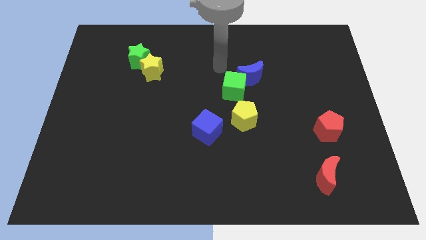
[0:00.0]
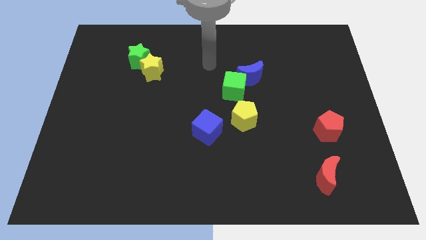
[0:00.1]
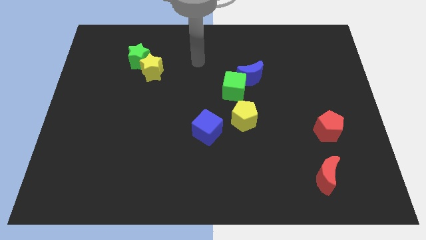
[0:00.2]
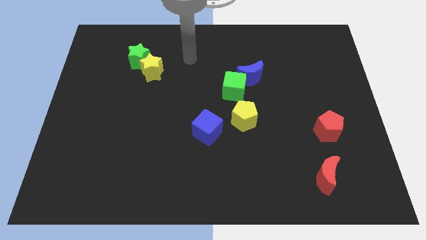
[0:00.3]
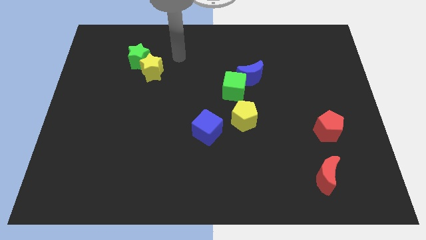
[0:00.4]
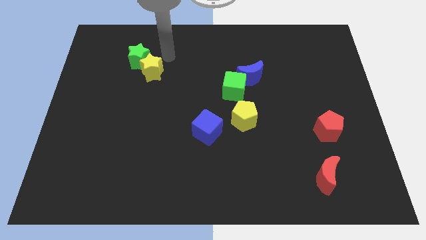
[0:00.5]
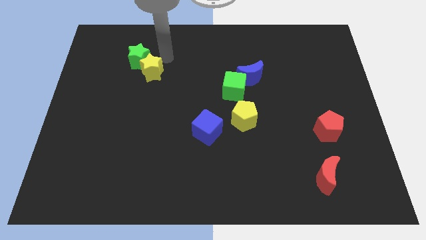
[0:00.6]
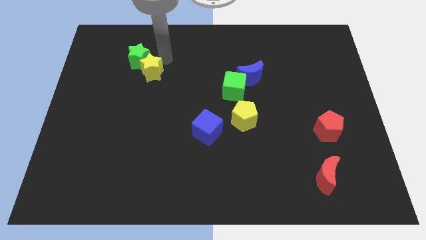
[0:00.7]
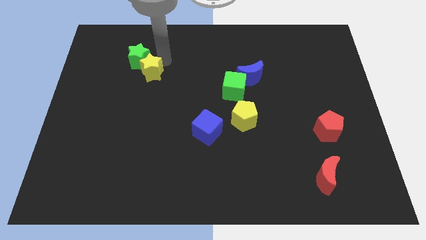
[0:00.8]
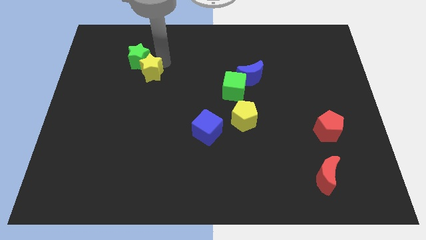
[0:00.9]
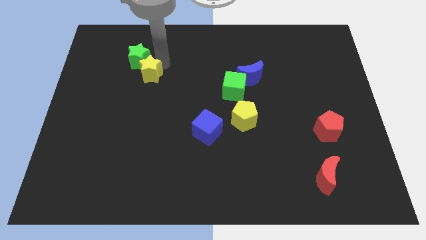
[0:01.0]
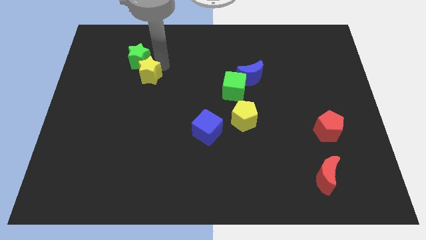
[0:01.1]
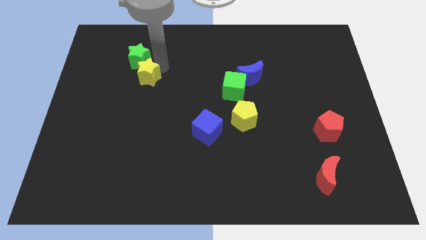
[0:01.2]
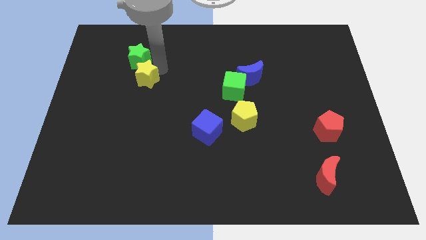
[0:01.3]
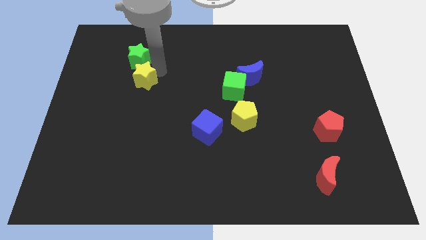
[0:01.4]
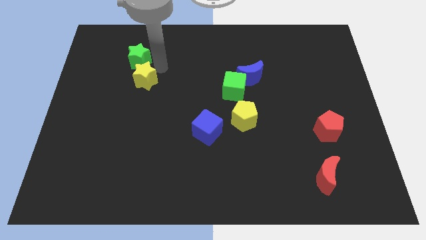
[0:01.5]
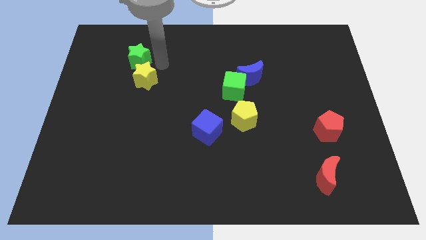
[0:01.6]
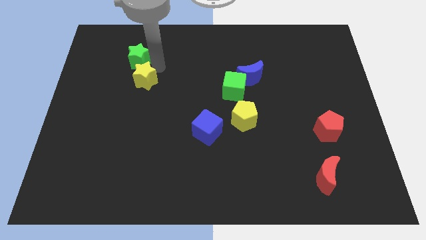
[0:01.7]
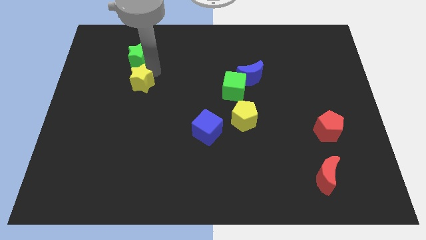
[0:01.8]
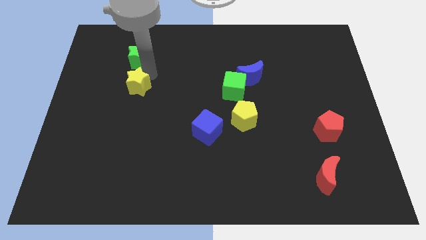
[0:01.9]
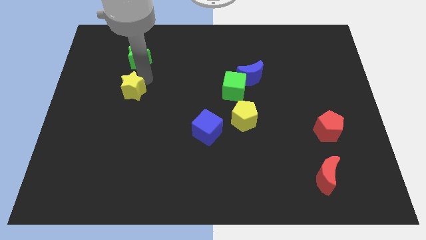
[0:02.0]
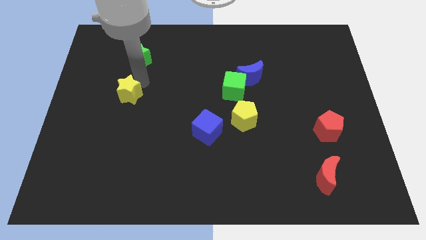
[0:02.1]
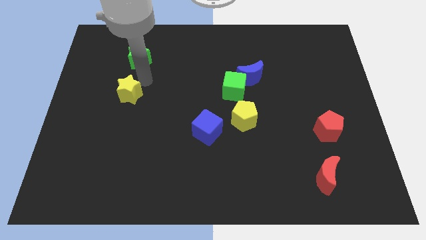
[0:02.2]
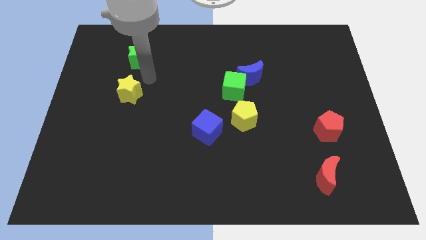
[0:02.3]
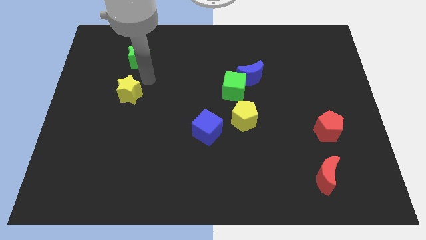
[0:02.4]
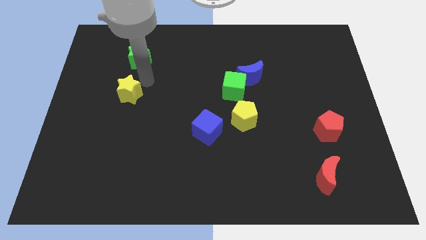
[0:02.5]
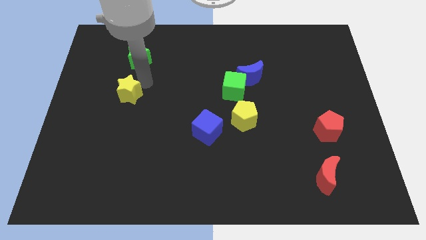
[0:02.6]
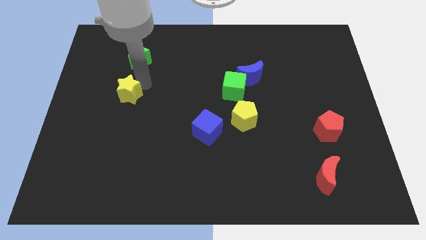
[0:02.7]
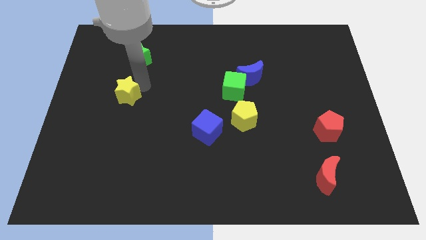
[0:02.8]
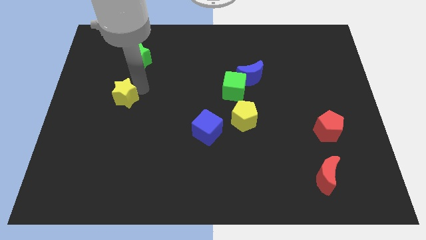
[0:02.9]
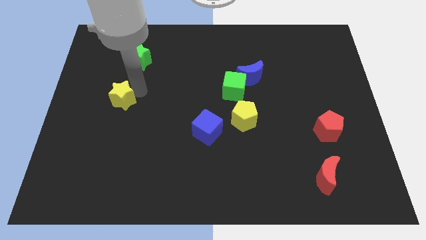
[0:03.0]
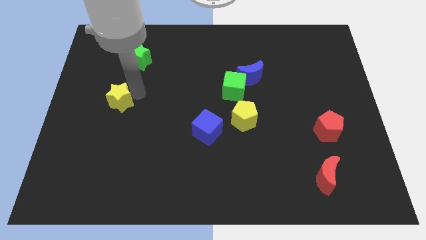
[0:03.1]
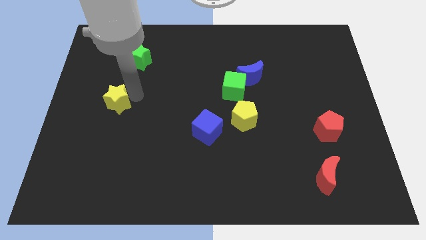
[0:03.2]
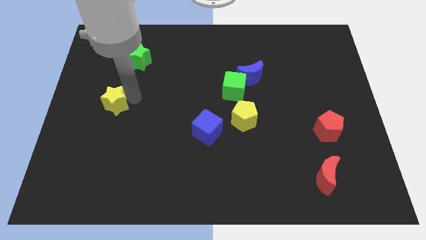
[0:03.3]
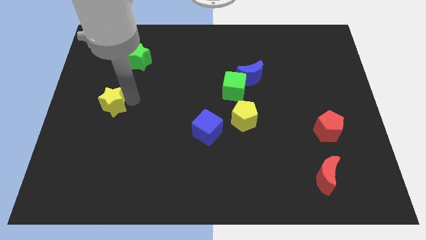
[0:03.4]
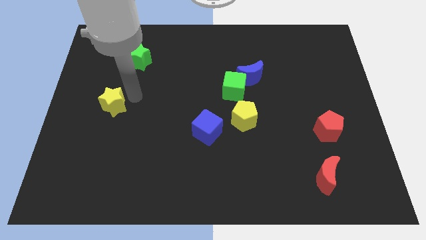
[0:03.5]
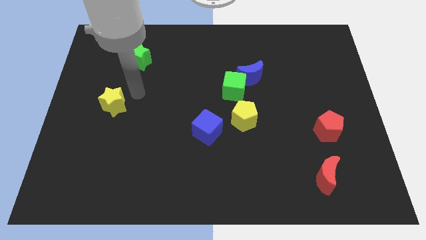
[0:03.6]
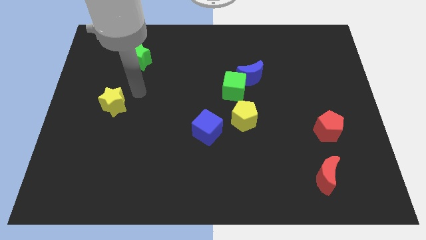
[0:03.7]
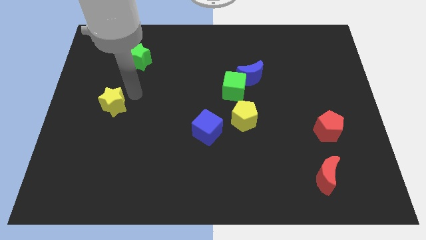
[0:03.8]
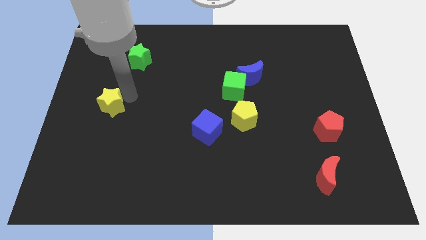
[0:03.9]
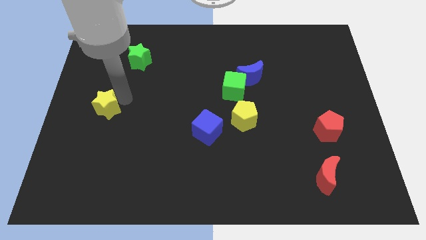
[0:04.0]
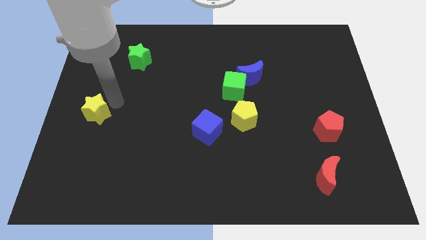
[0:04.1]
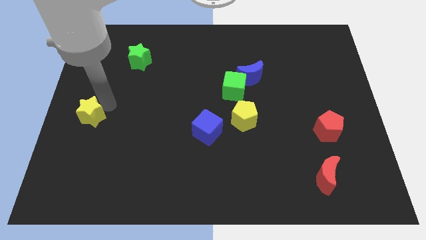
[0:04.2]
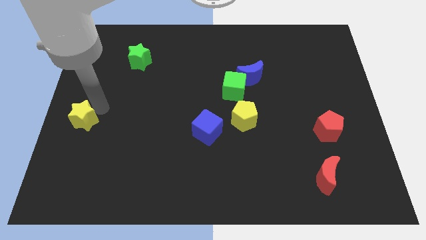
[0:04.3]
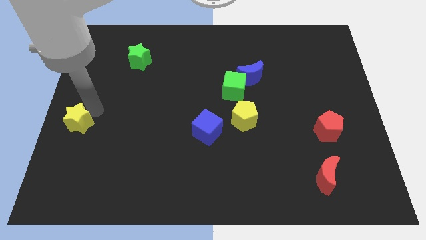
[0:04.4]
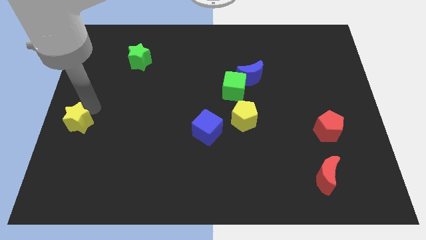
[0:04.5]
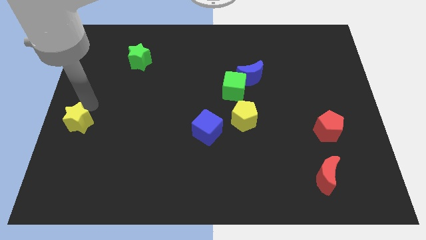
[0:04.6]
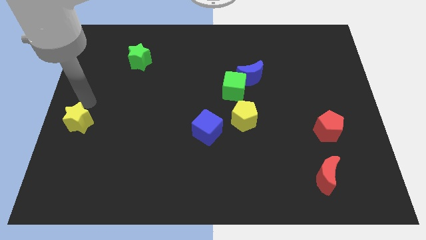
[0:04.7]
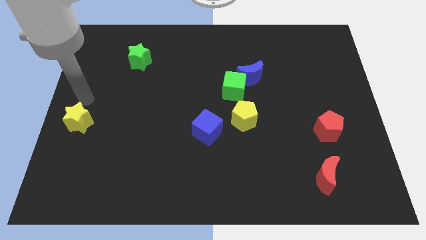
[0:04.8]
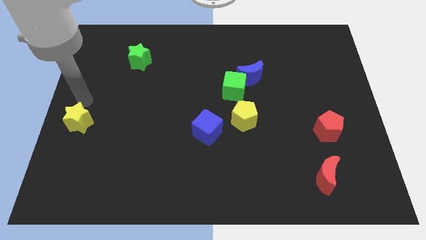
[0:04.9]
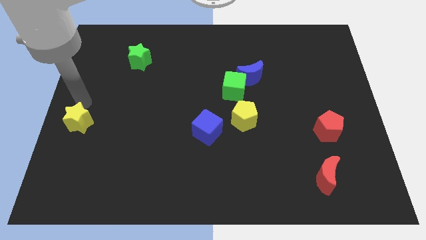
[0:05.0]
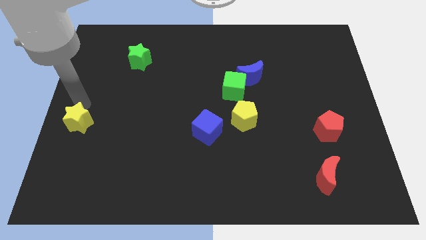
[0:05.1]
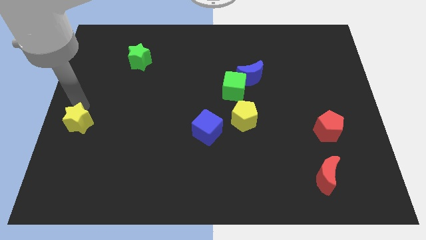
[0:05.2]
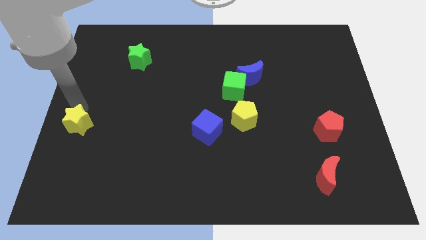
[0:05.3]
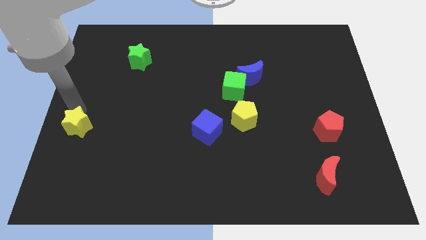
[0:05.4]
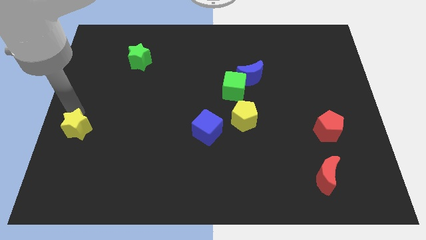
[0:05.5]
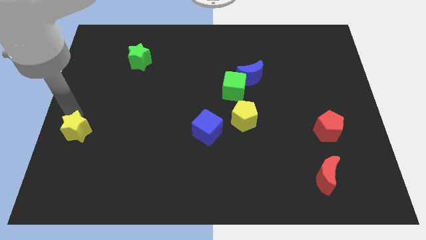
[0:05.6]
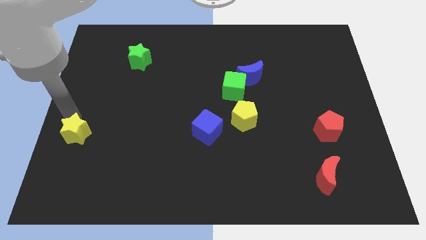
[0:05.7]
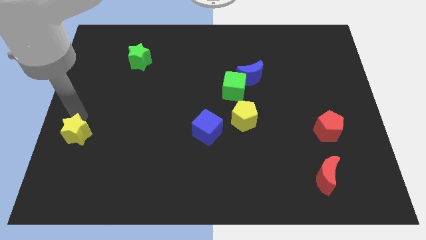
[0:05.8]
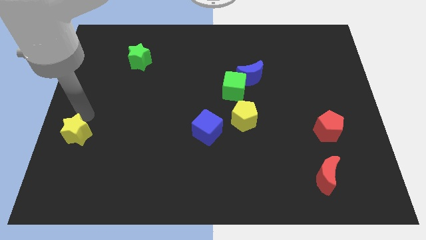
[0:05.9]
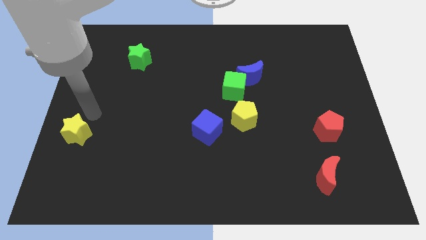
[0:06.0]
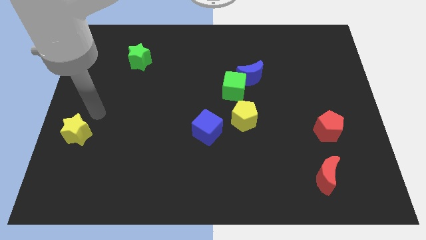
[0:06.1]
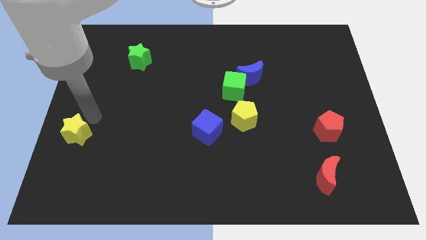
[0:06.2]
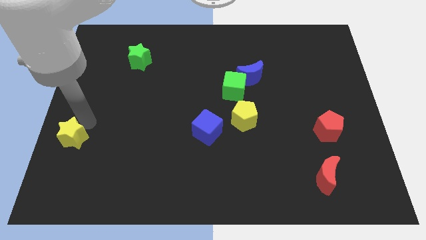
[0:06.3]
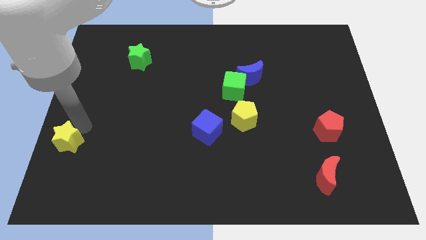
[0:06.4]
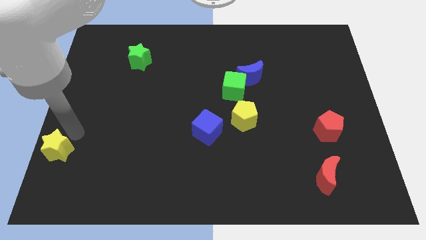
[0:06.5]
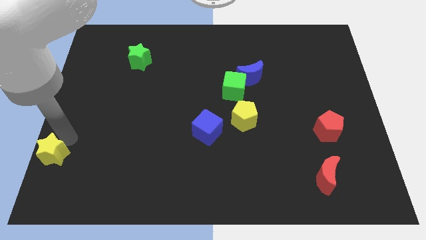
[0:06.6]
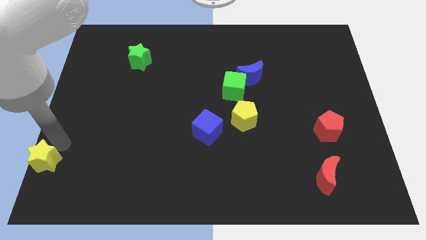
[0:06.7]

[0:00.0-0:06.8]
move the yellow star to the lower left corner
